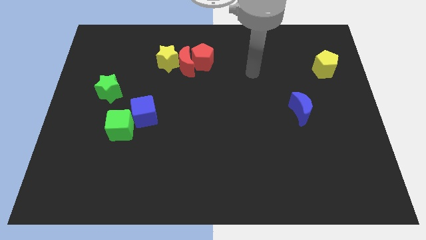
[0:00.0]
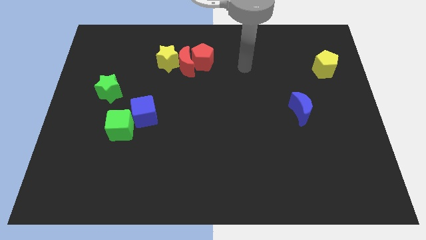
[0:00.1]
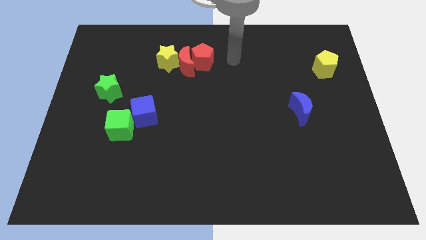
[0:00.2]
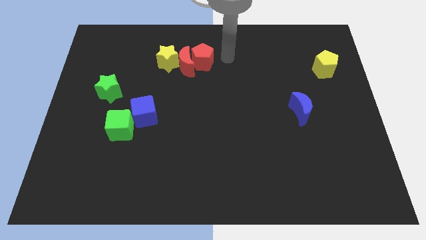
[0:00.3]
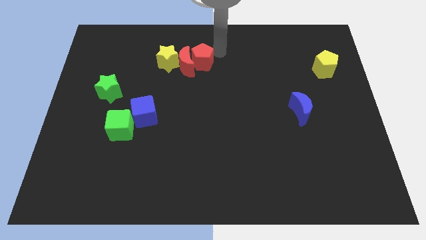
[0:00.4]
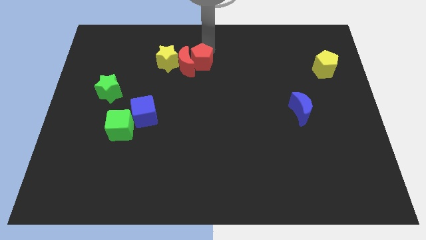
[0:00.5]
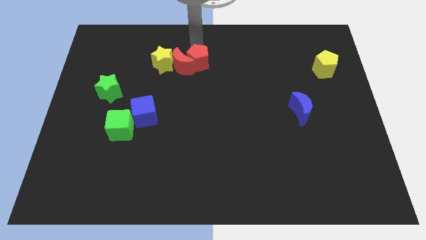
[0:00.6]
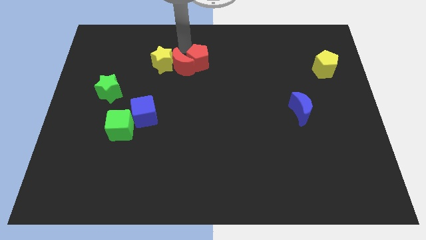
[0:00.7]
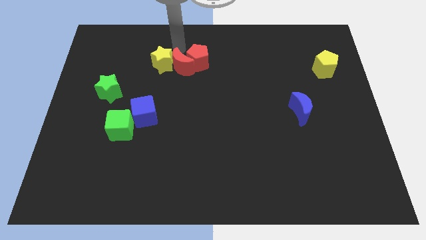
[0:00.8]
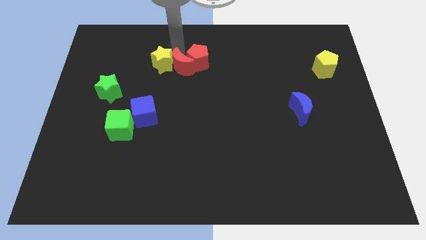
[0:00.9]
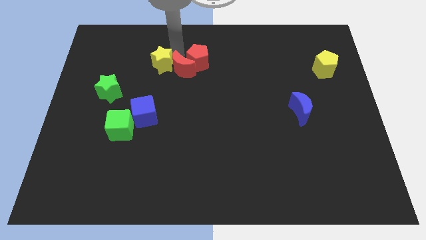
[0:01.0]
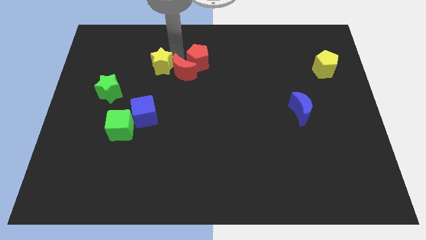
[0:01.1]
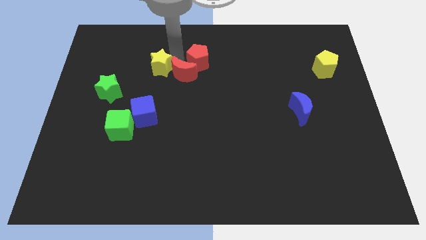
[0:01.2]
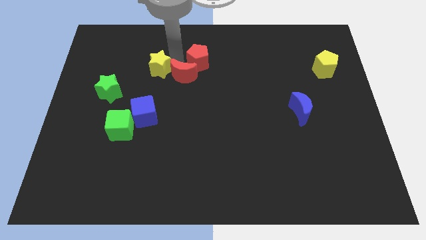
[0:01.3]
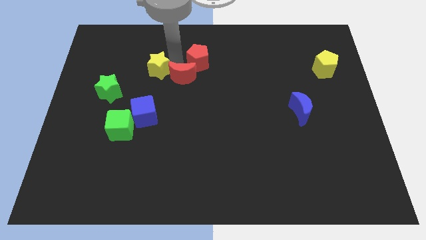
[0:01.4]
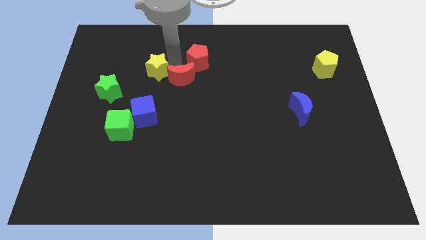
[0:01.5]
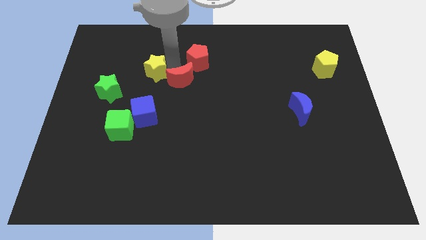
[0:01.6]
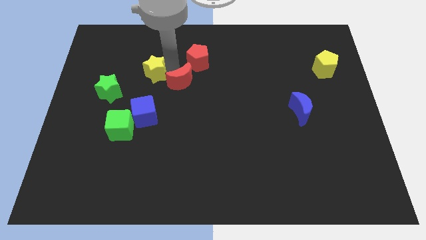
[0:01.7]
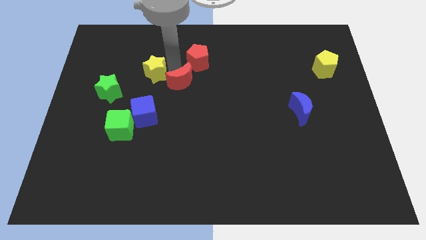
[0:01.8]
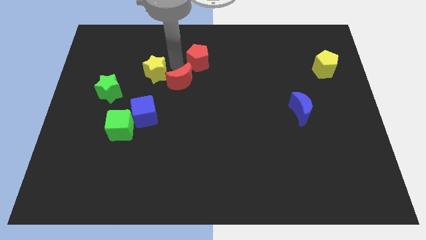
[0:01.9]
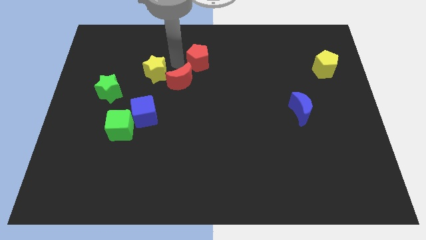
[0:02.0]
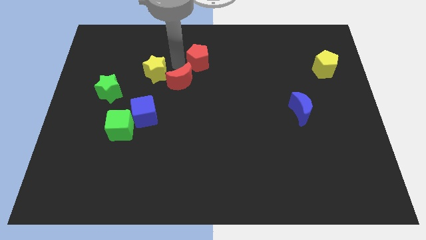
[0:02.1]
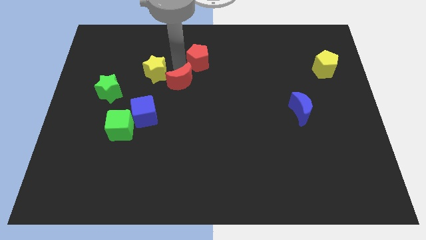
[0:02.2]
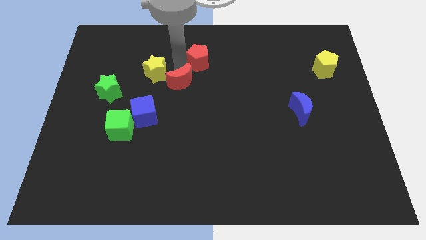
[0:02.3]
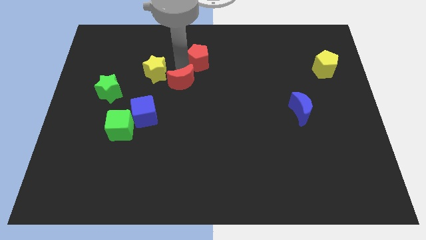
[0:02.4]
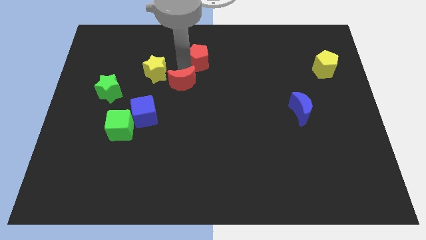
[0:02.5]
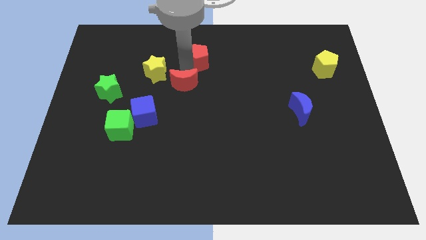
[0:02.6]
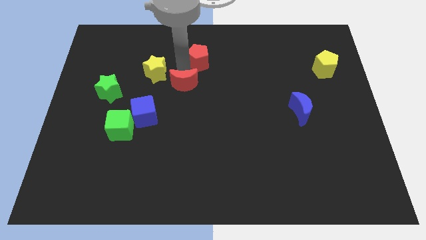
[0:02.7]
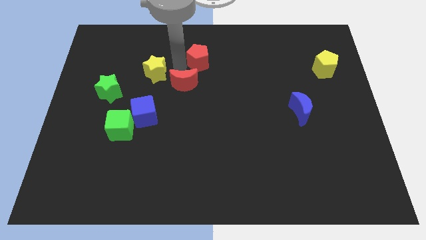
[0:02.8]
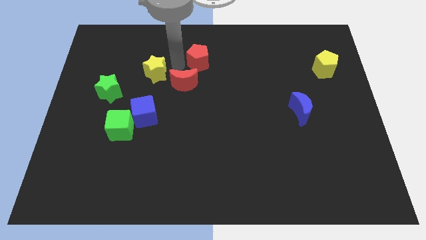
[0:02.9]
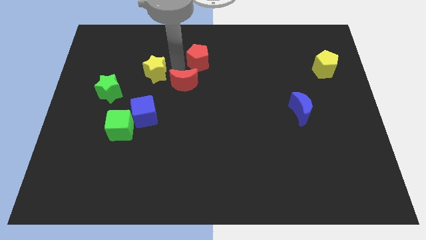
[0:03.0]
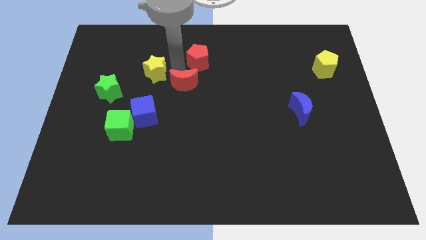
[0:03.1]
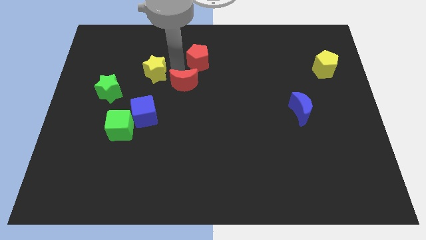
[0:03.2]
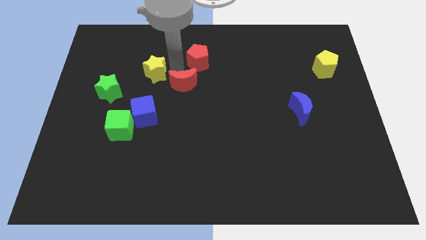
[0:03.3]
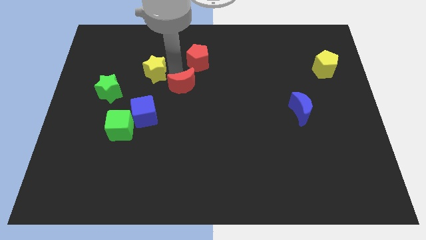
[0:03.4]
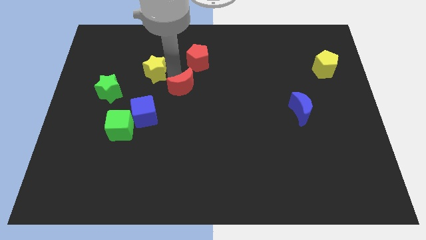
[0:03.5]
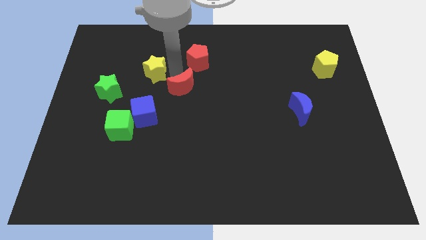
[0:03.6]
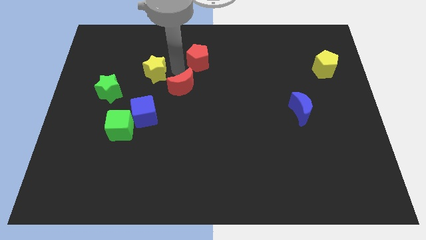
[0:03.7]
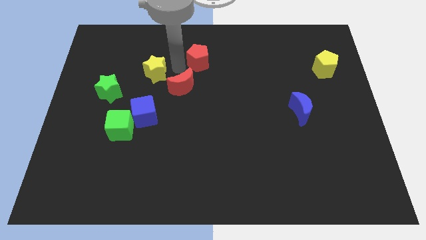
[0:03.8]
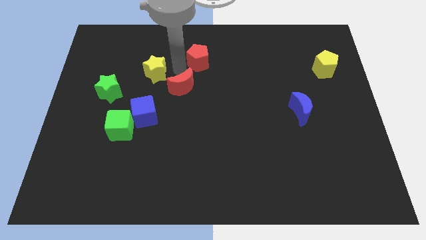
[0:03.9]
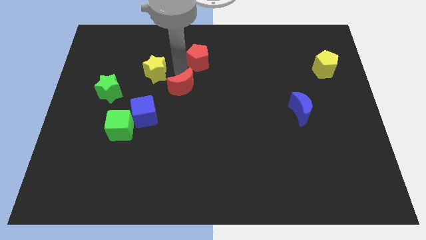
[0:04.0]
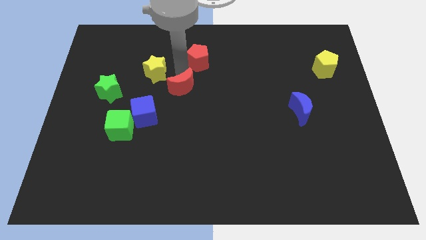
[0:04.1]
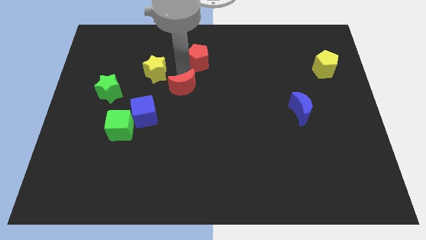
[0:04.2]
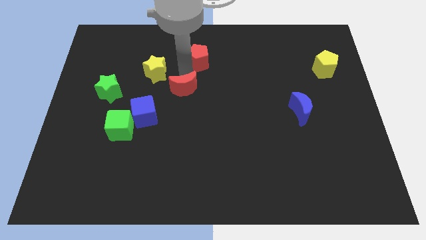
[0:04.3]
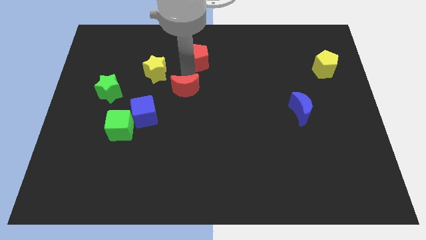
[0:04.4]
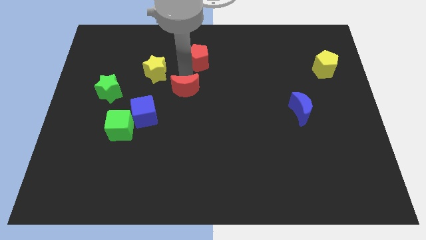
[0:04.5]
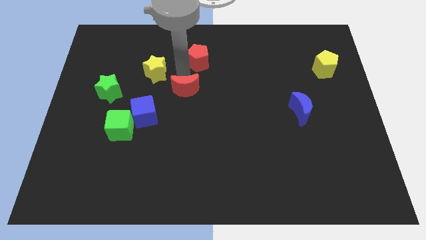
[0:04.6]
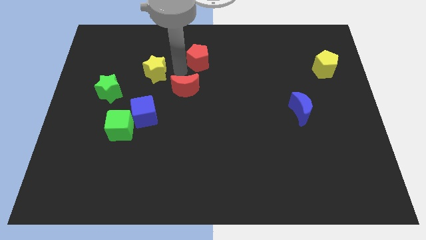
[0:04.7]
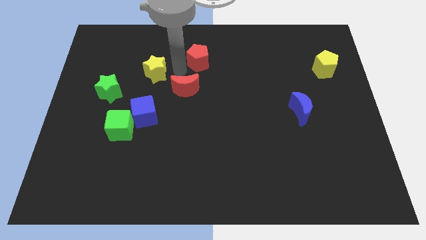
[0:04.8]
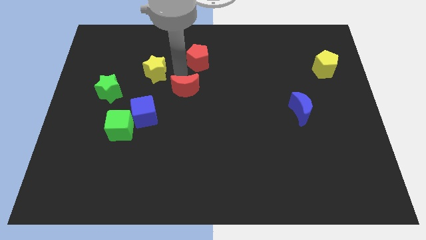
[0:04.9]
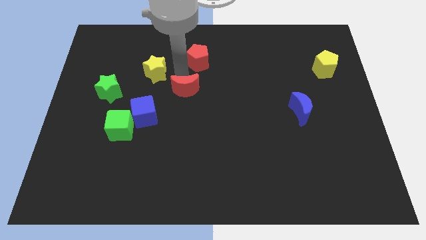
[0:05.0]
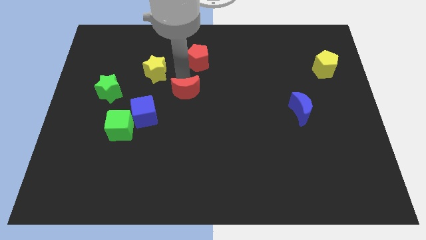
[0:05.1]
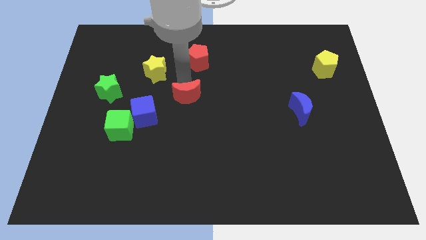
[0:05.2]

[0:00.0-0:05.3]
pull the red moon apart from the red pentagon and yellow star

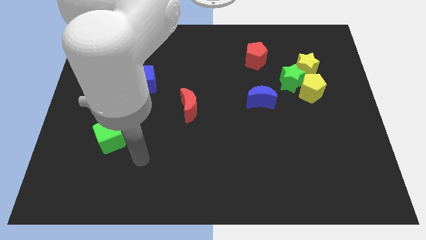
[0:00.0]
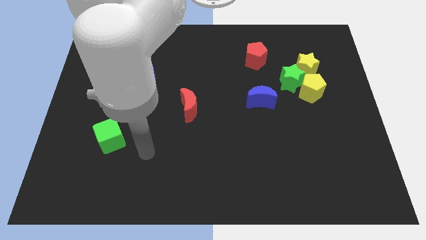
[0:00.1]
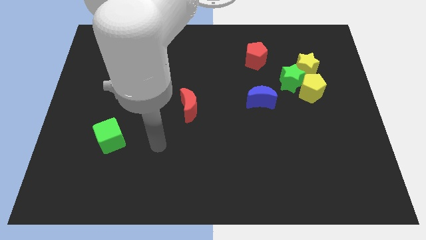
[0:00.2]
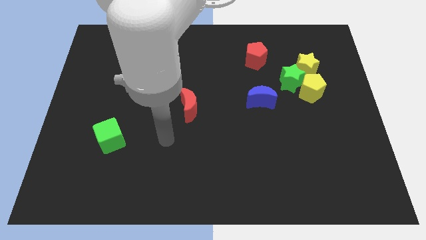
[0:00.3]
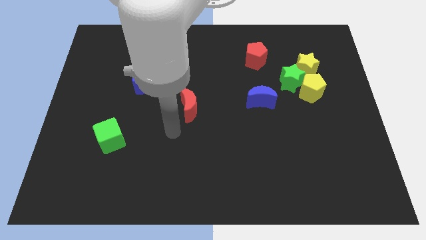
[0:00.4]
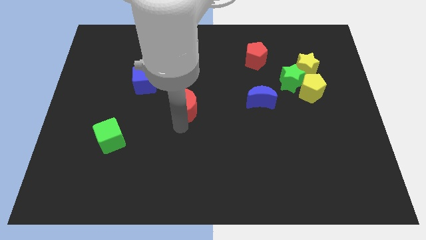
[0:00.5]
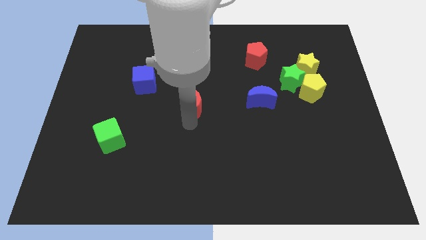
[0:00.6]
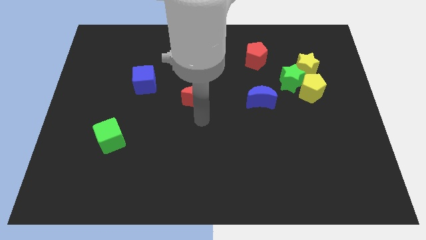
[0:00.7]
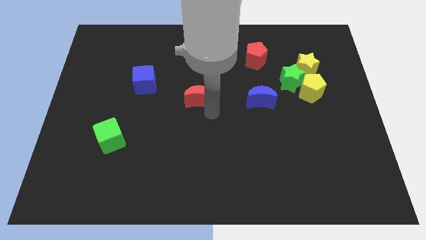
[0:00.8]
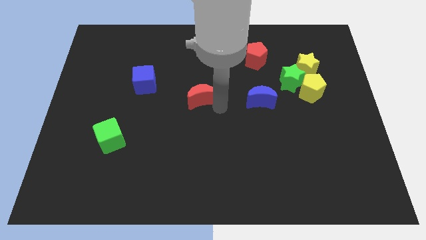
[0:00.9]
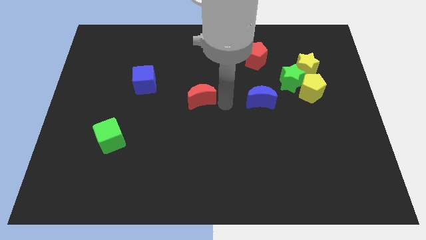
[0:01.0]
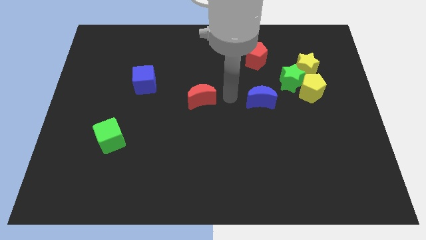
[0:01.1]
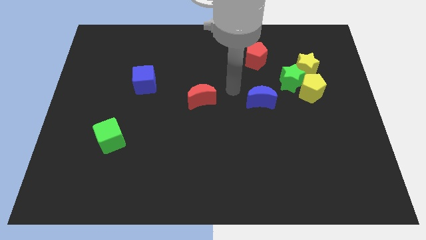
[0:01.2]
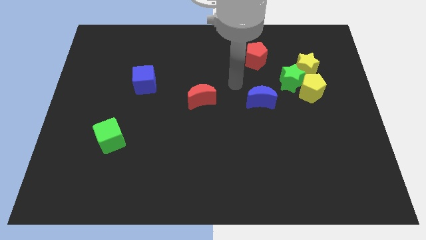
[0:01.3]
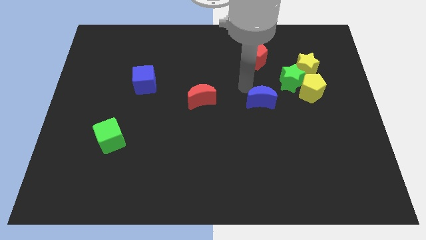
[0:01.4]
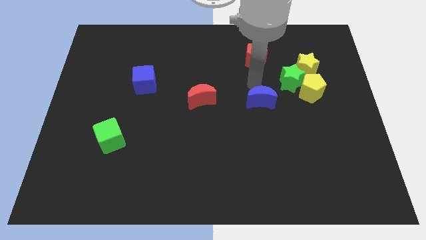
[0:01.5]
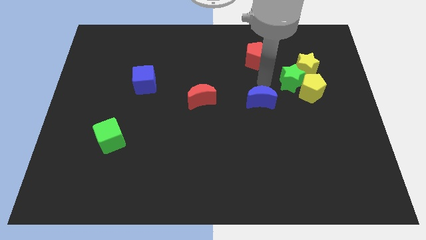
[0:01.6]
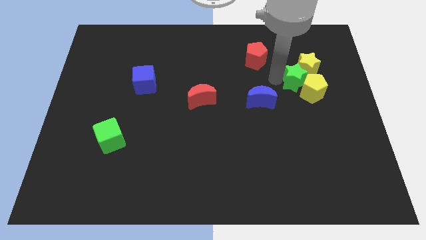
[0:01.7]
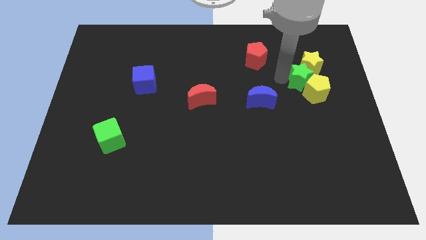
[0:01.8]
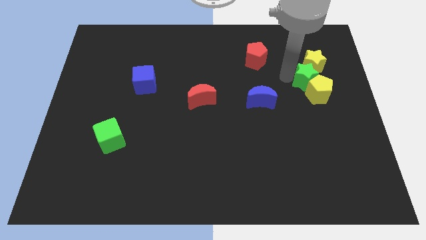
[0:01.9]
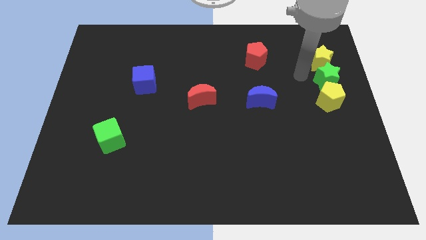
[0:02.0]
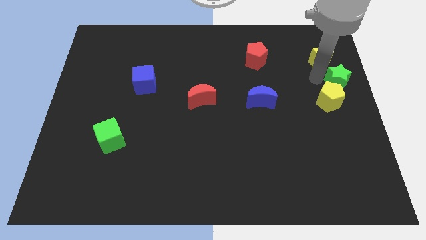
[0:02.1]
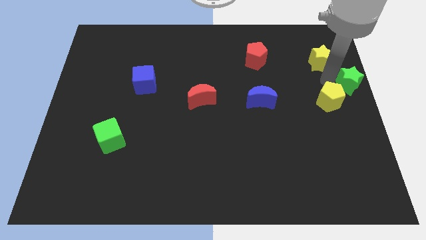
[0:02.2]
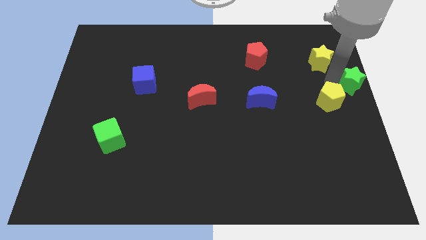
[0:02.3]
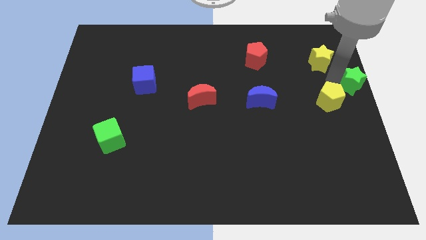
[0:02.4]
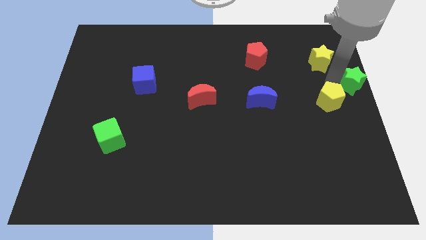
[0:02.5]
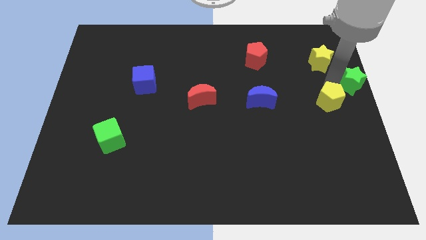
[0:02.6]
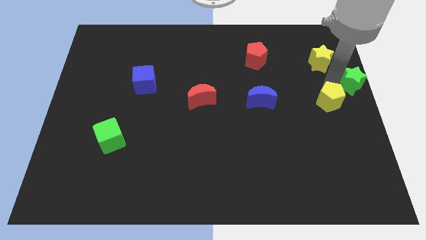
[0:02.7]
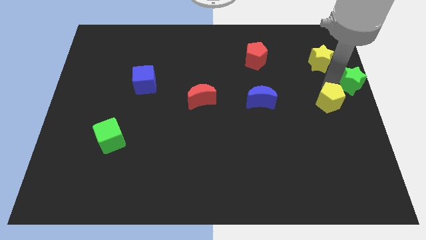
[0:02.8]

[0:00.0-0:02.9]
pull the yellow pentagon apart from the green star and yellow star

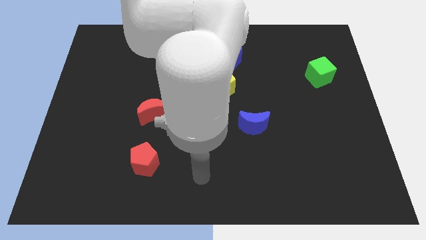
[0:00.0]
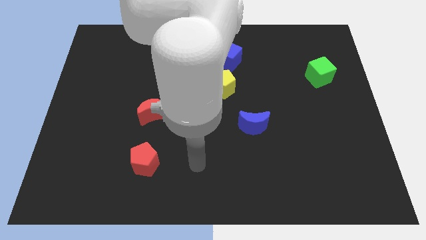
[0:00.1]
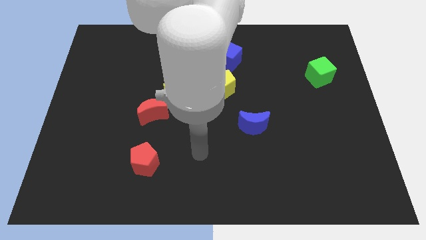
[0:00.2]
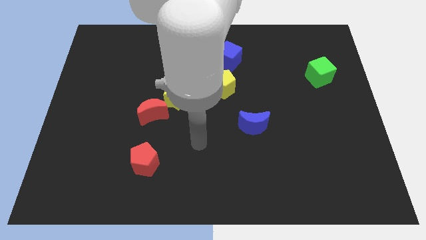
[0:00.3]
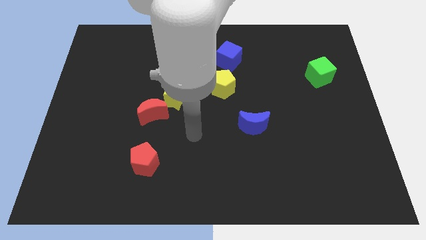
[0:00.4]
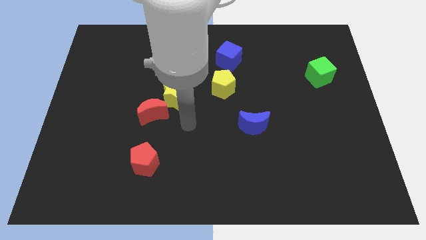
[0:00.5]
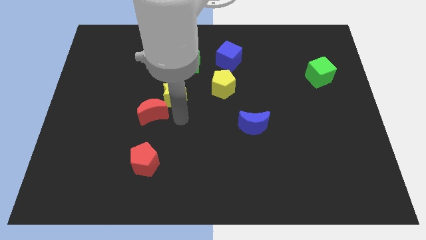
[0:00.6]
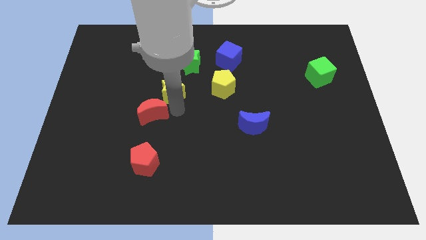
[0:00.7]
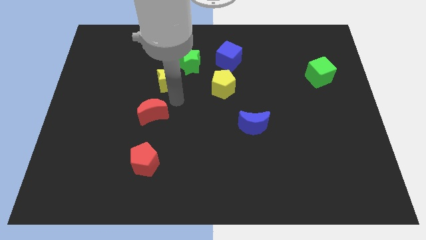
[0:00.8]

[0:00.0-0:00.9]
separate the red moon from the yellow star

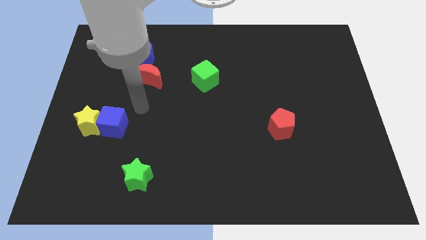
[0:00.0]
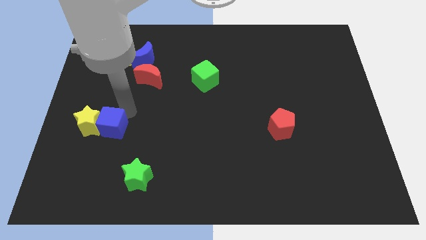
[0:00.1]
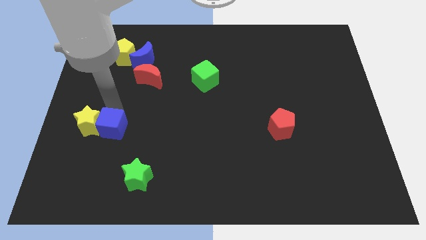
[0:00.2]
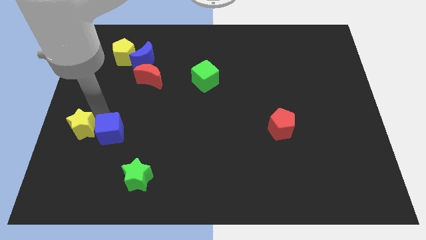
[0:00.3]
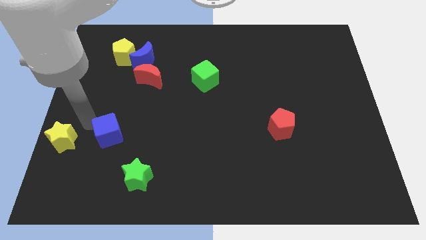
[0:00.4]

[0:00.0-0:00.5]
separate the blue cube from the yellow star
